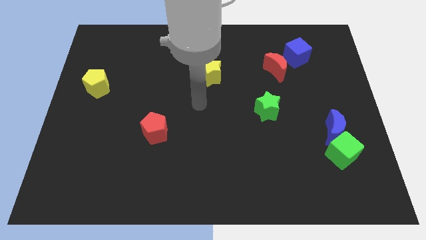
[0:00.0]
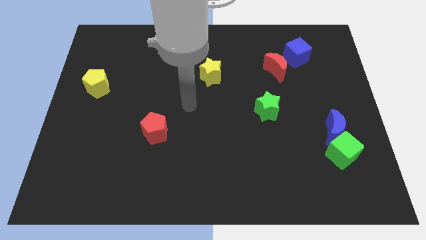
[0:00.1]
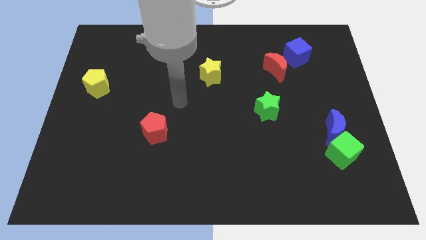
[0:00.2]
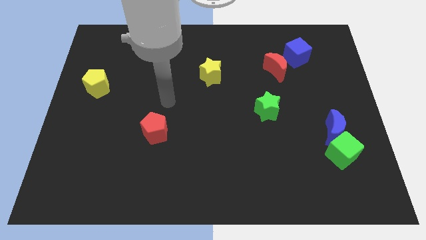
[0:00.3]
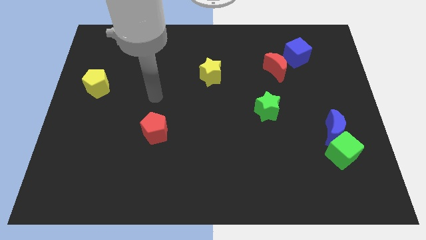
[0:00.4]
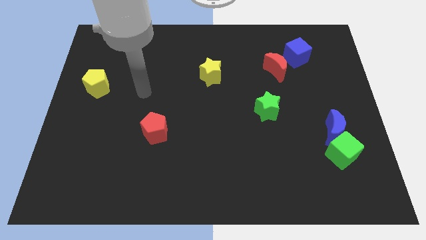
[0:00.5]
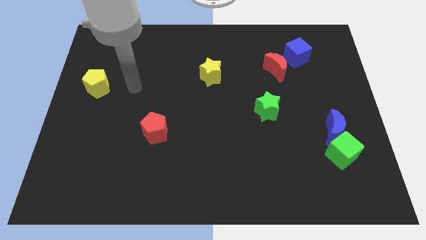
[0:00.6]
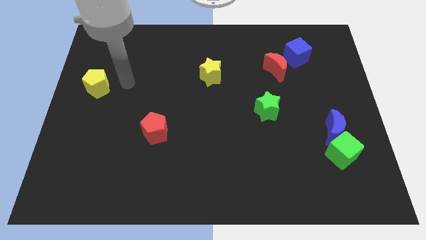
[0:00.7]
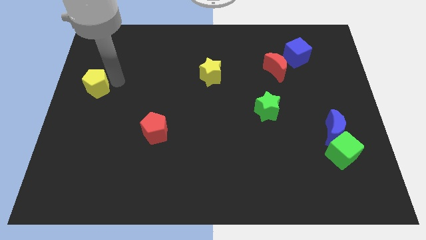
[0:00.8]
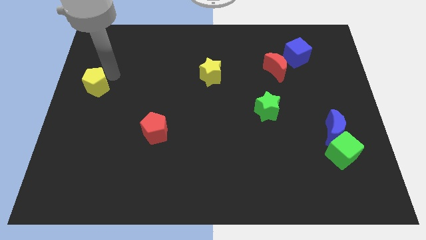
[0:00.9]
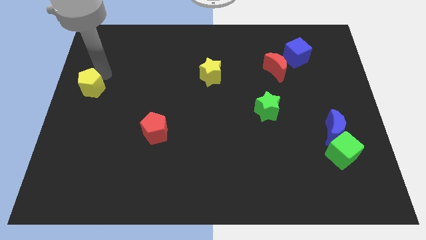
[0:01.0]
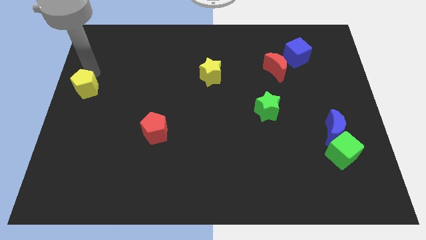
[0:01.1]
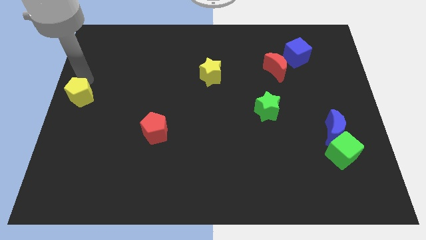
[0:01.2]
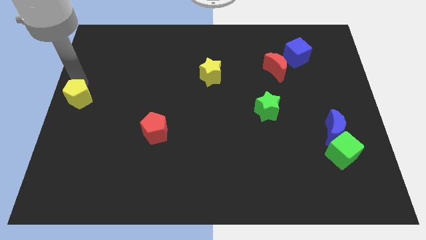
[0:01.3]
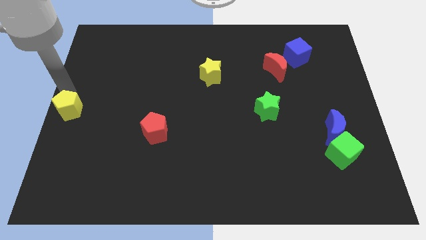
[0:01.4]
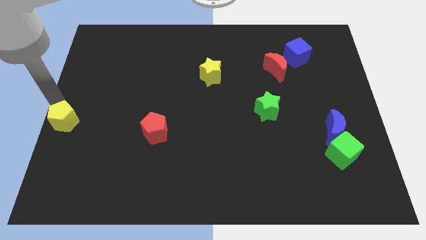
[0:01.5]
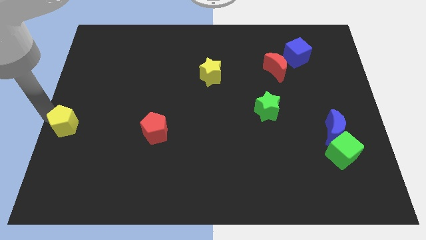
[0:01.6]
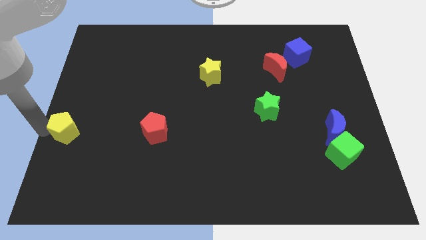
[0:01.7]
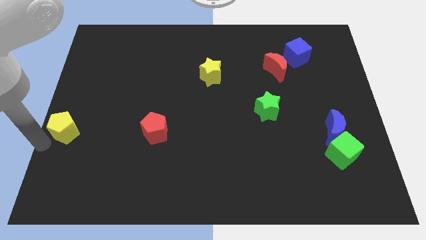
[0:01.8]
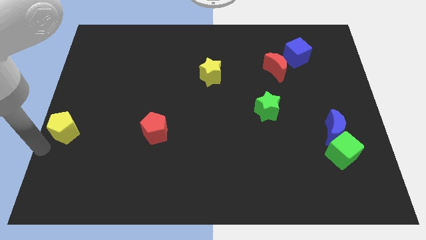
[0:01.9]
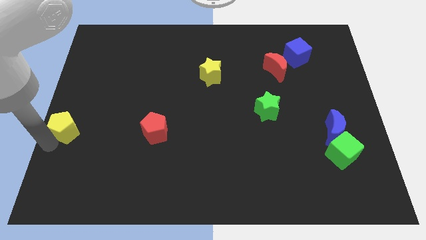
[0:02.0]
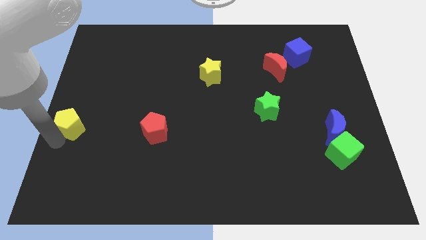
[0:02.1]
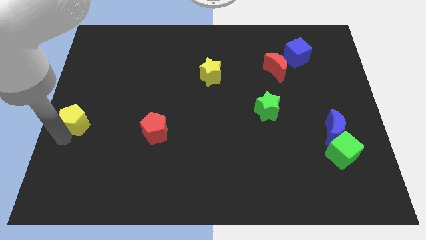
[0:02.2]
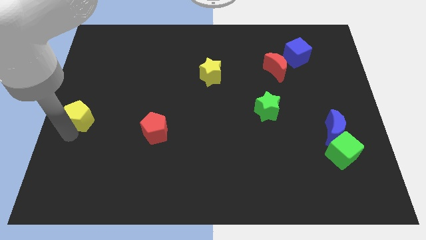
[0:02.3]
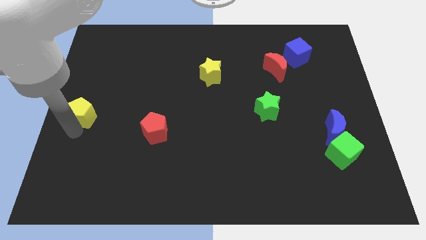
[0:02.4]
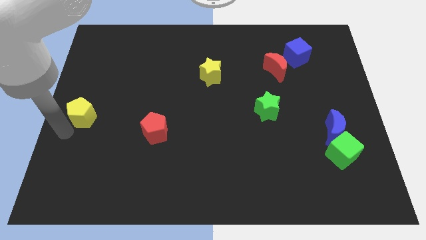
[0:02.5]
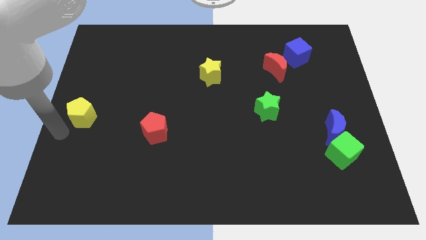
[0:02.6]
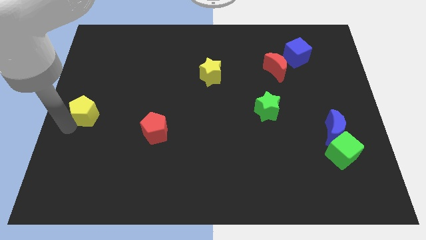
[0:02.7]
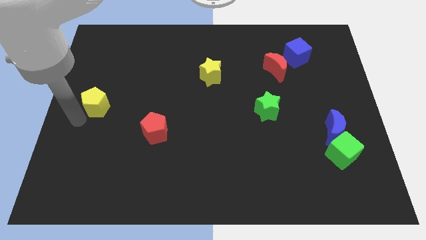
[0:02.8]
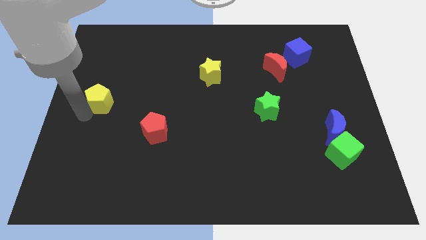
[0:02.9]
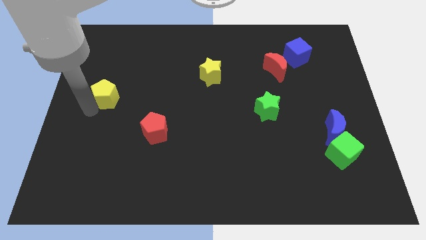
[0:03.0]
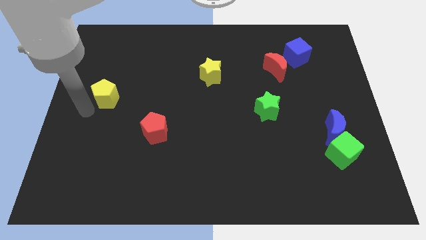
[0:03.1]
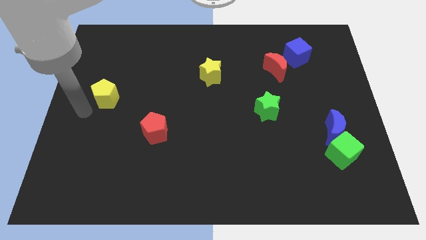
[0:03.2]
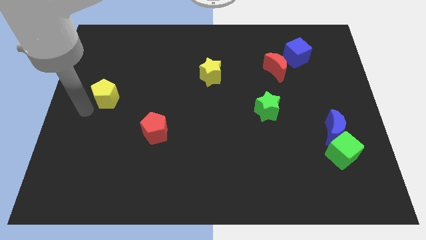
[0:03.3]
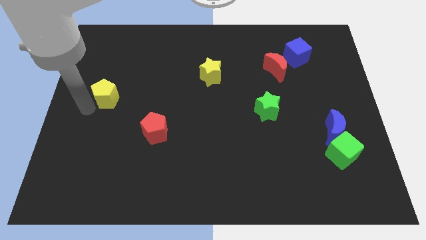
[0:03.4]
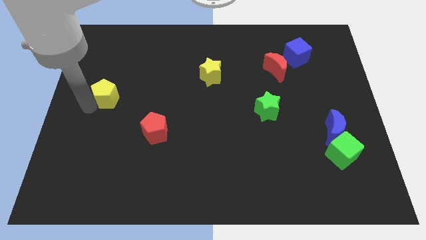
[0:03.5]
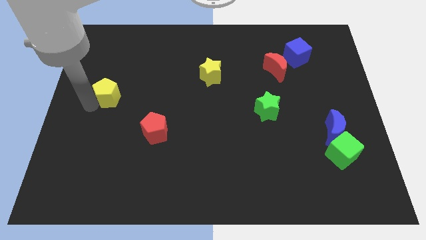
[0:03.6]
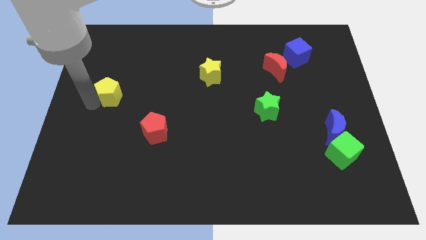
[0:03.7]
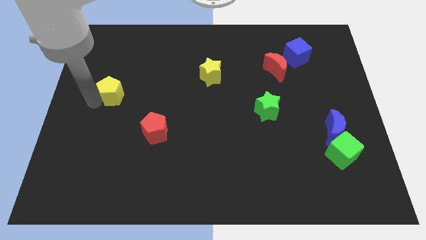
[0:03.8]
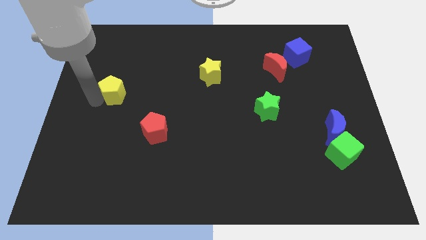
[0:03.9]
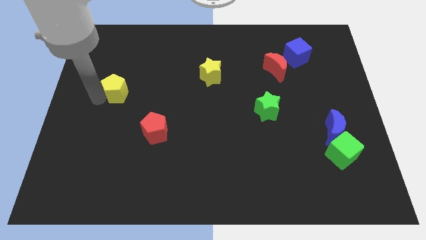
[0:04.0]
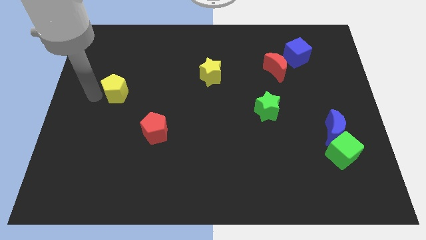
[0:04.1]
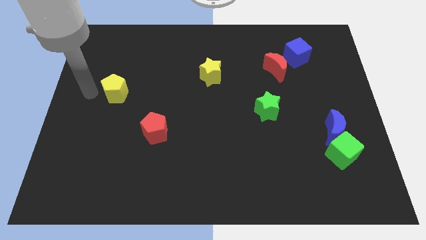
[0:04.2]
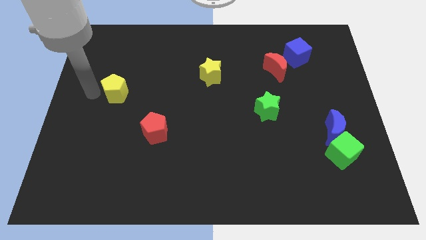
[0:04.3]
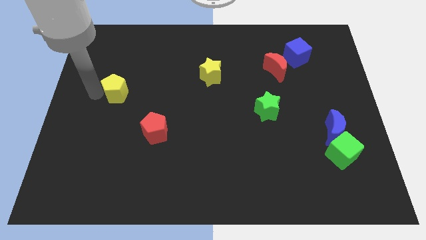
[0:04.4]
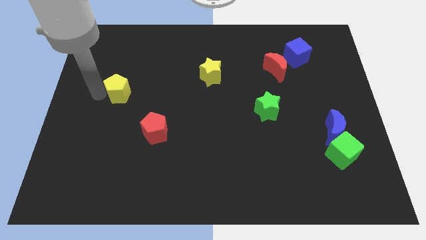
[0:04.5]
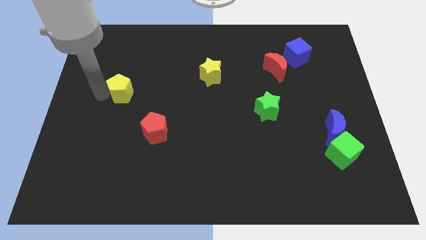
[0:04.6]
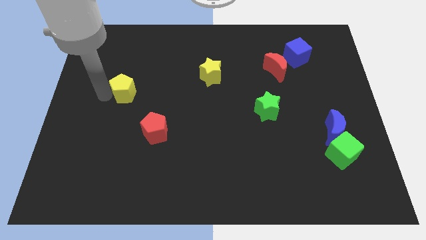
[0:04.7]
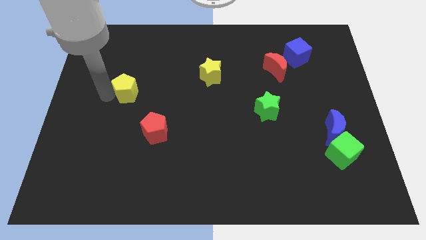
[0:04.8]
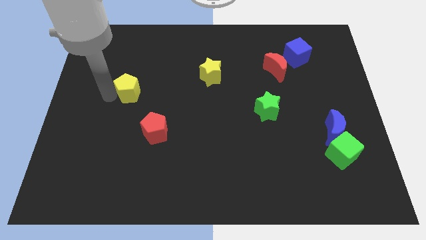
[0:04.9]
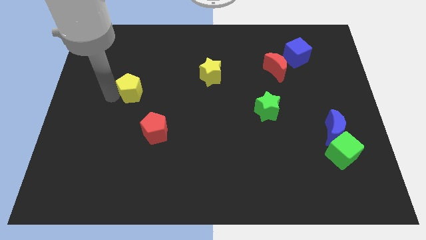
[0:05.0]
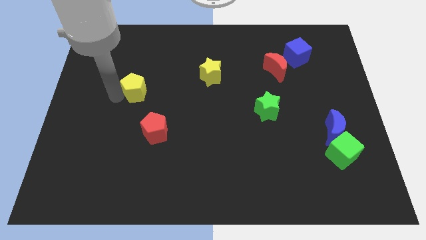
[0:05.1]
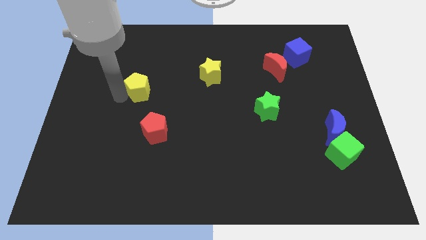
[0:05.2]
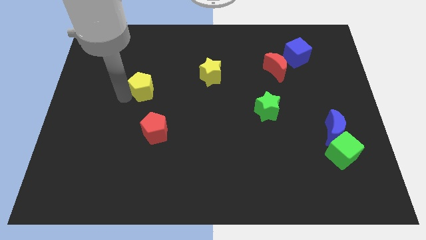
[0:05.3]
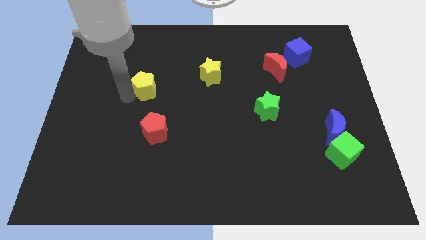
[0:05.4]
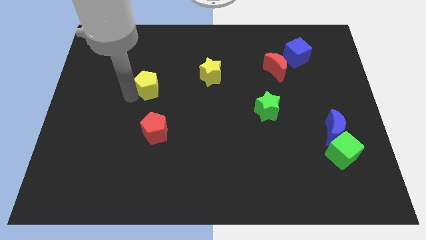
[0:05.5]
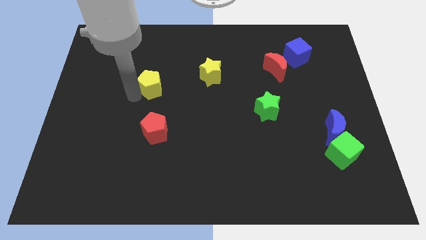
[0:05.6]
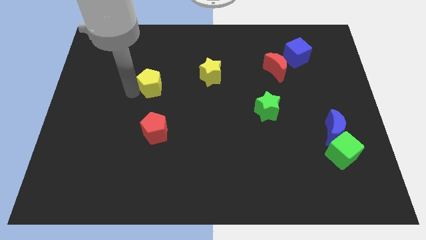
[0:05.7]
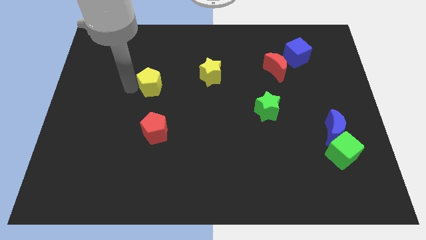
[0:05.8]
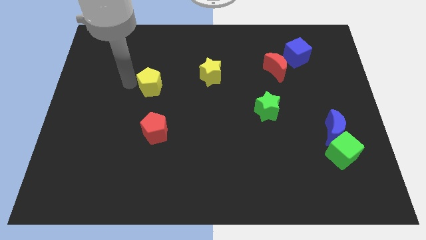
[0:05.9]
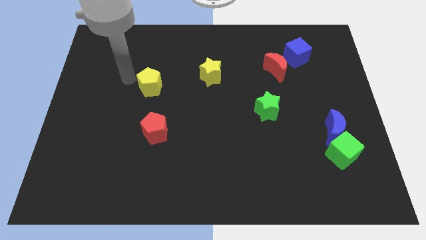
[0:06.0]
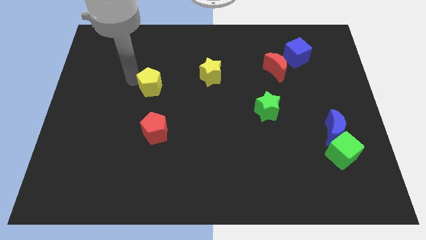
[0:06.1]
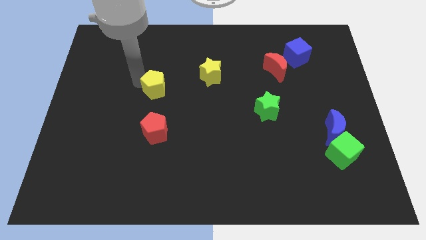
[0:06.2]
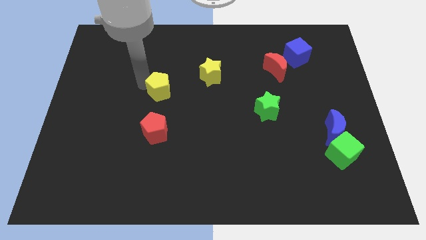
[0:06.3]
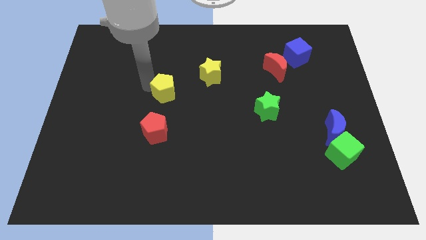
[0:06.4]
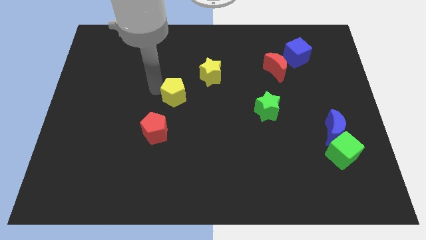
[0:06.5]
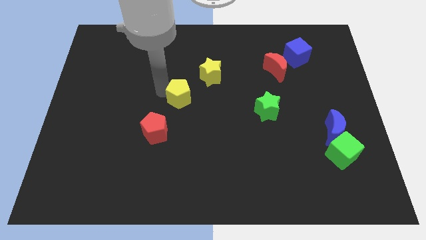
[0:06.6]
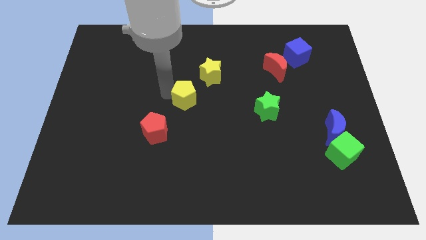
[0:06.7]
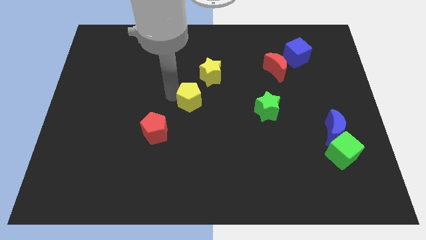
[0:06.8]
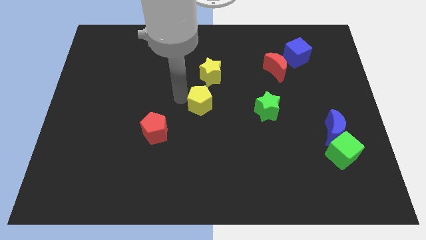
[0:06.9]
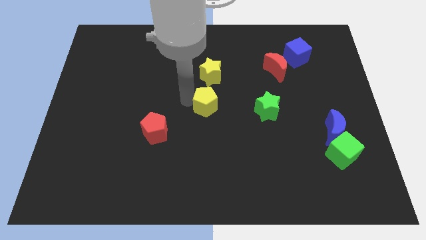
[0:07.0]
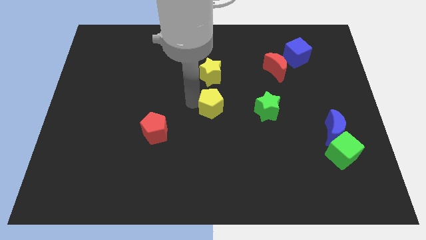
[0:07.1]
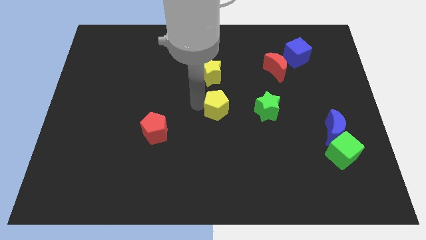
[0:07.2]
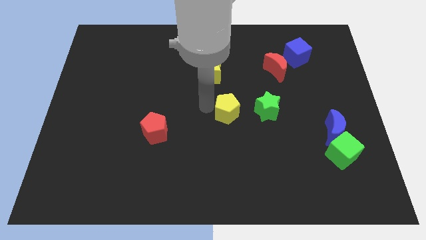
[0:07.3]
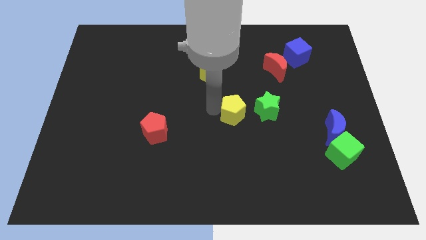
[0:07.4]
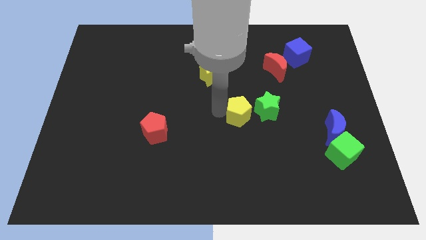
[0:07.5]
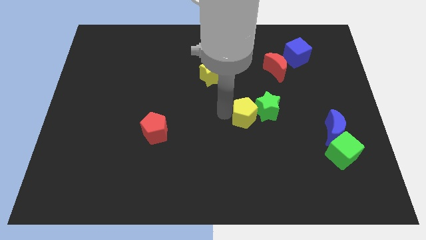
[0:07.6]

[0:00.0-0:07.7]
push the yellow pentagon towards the green star

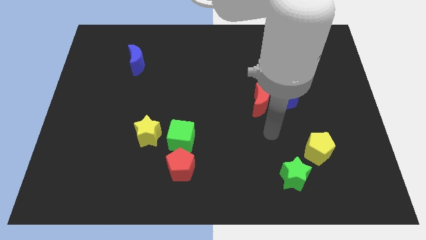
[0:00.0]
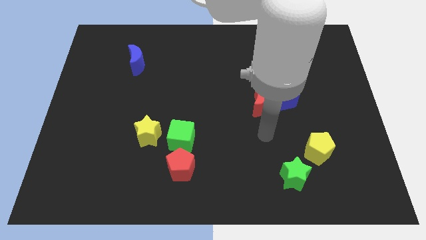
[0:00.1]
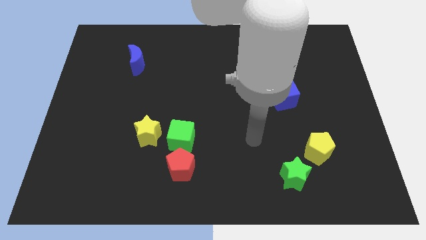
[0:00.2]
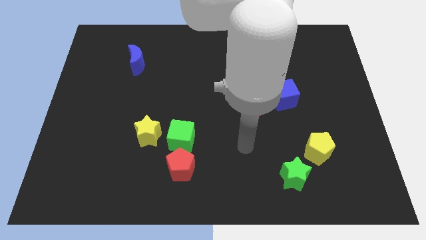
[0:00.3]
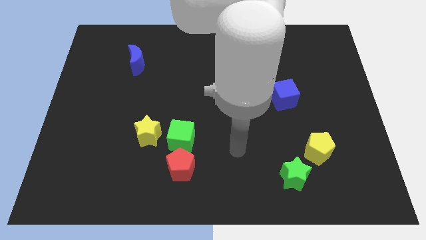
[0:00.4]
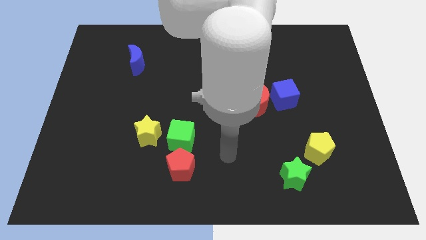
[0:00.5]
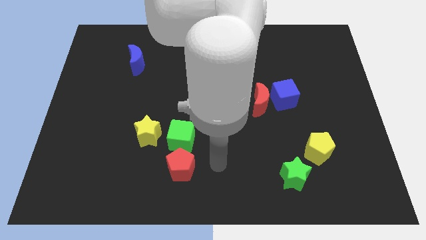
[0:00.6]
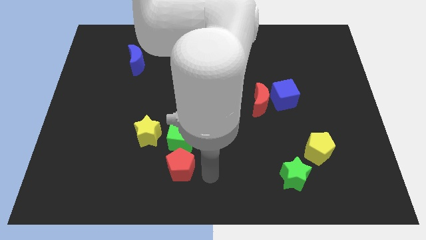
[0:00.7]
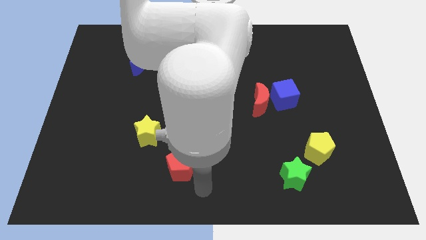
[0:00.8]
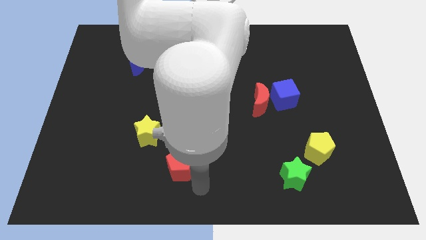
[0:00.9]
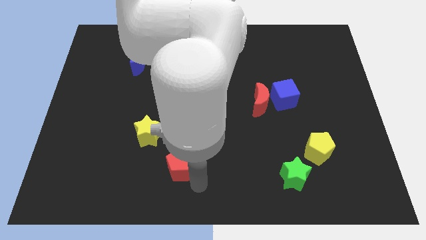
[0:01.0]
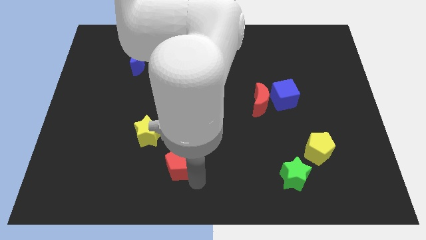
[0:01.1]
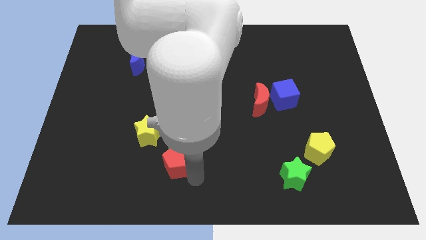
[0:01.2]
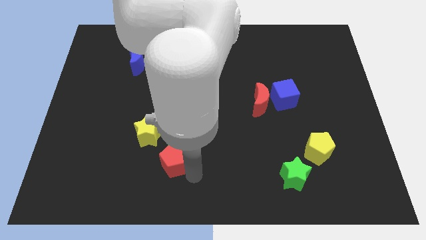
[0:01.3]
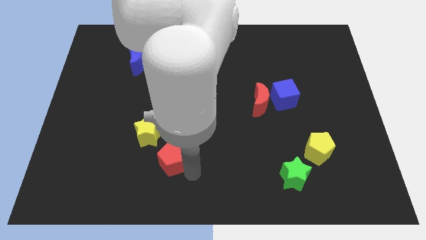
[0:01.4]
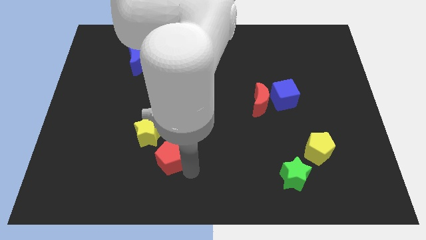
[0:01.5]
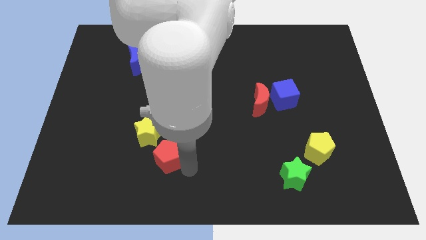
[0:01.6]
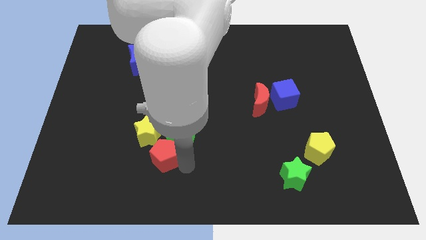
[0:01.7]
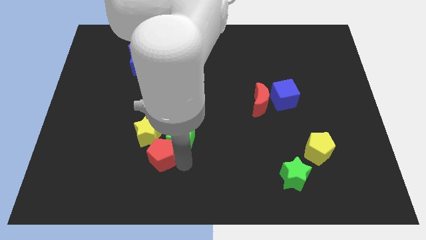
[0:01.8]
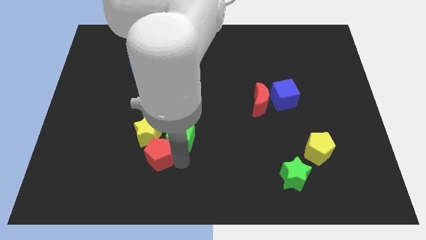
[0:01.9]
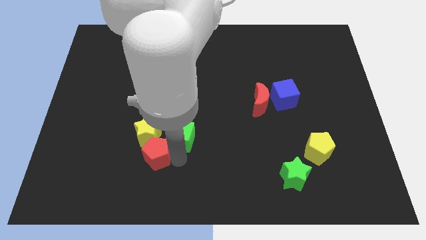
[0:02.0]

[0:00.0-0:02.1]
push the red pentagon to the yellow star
